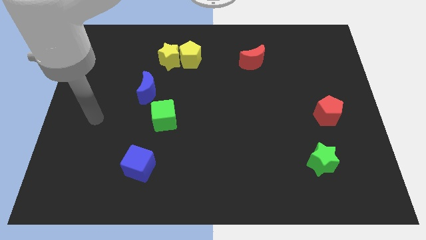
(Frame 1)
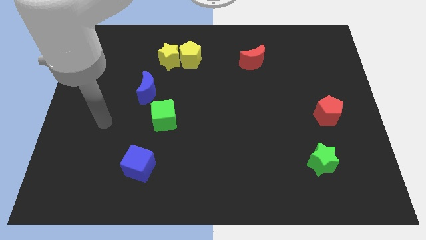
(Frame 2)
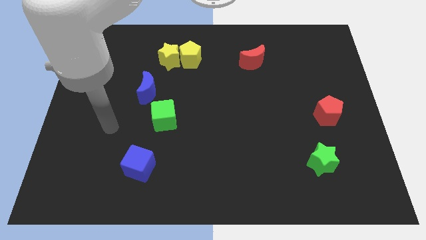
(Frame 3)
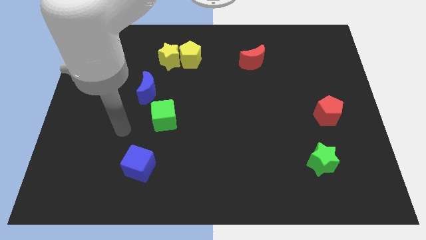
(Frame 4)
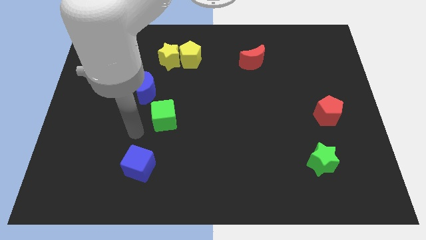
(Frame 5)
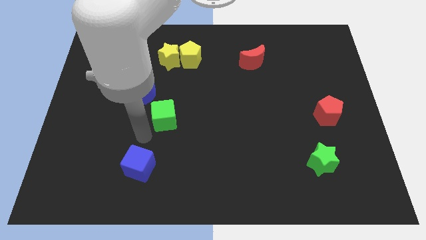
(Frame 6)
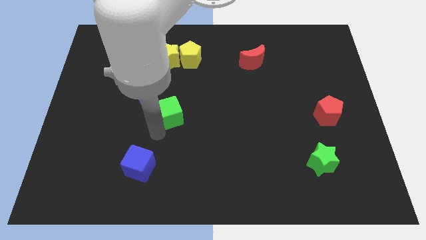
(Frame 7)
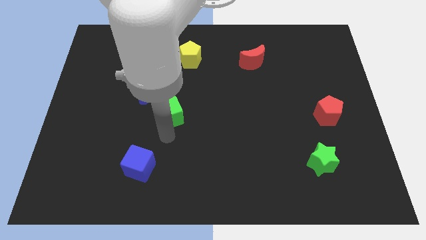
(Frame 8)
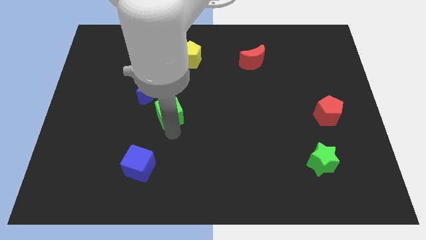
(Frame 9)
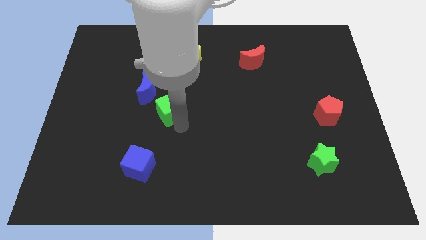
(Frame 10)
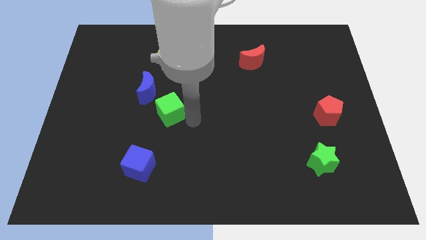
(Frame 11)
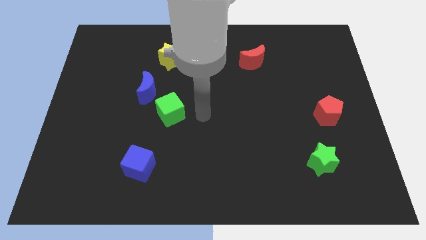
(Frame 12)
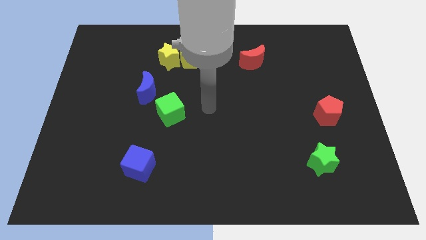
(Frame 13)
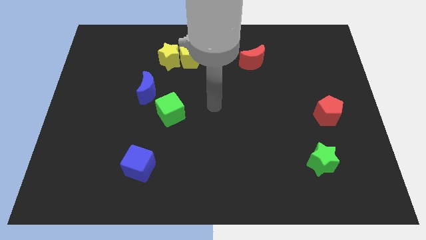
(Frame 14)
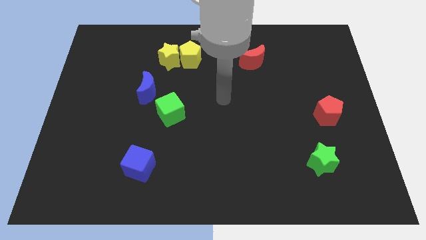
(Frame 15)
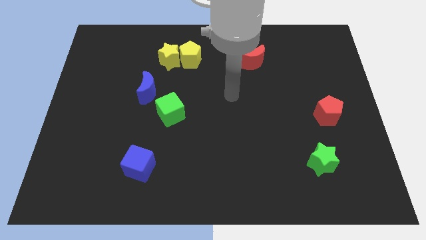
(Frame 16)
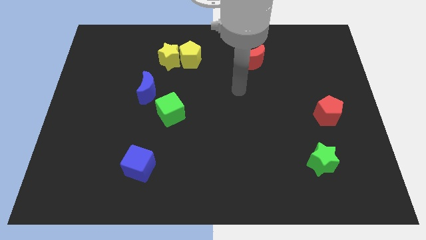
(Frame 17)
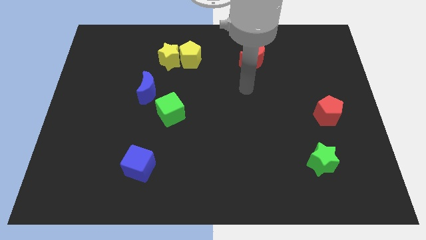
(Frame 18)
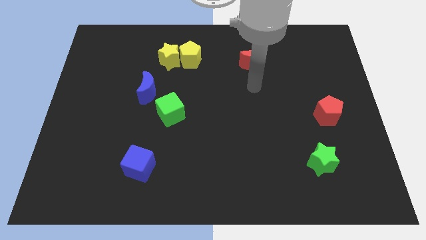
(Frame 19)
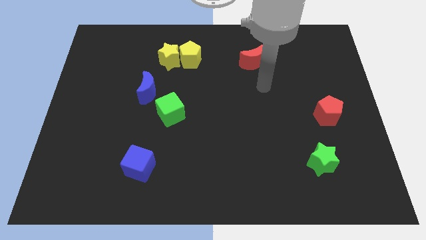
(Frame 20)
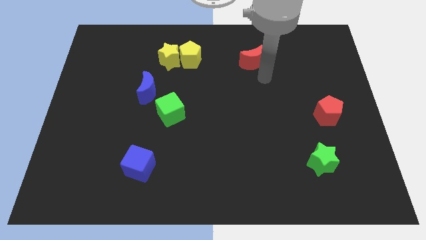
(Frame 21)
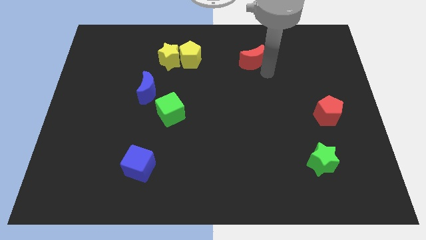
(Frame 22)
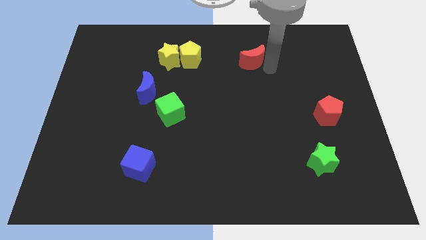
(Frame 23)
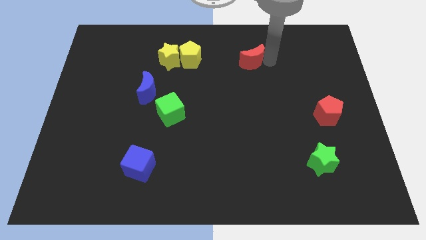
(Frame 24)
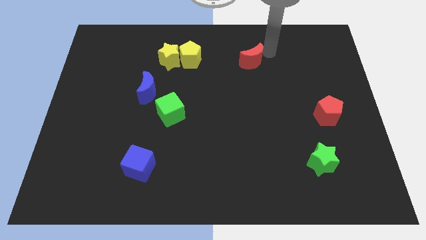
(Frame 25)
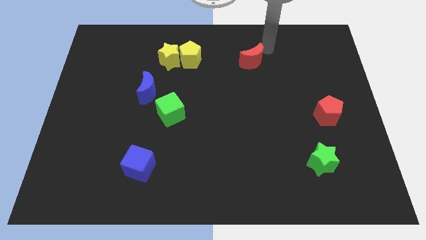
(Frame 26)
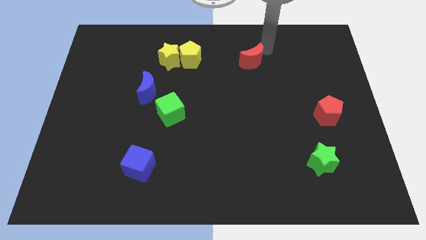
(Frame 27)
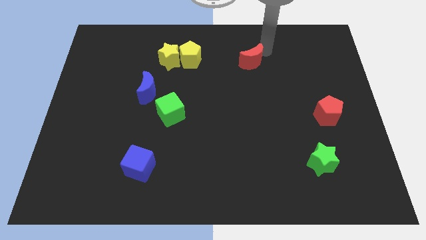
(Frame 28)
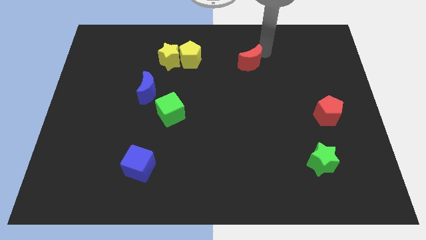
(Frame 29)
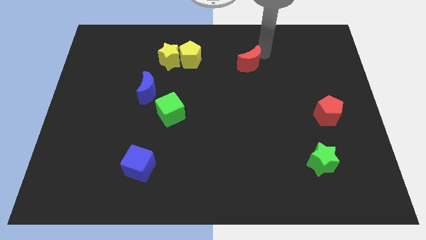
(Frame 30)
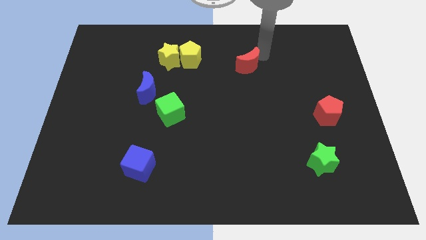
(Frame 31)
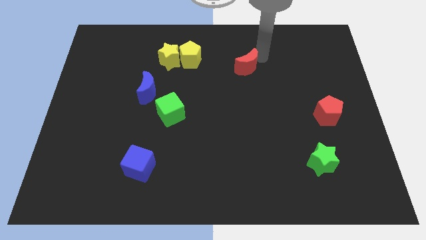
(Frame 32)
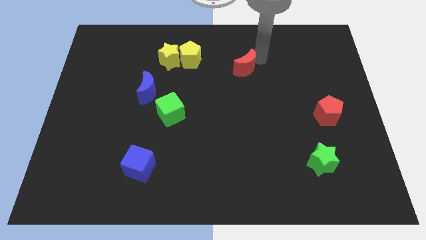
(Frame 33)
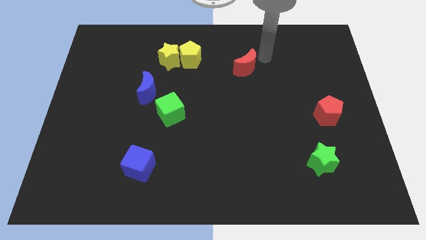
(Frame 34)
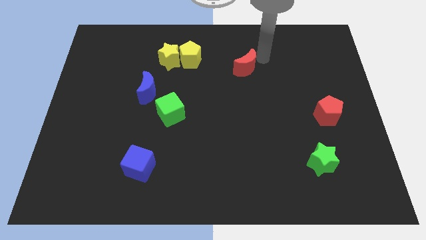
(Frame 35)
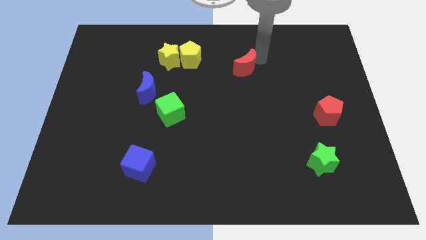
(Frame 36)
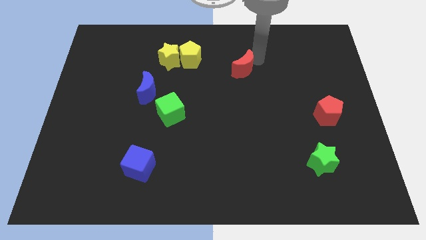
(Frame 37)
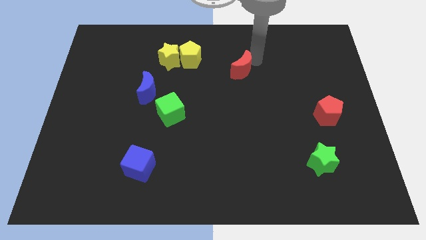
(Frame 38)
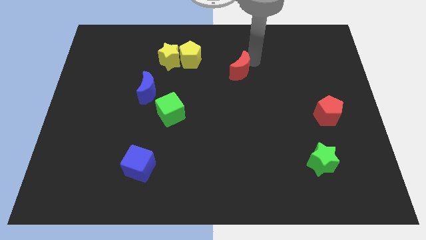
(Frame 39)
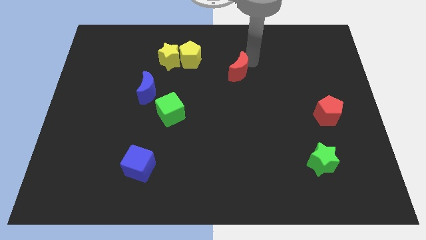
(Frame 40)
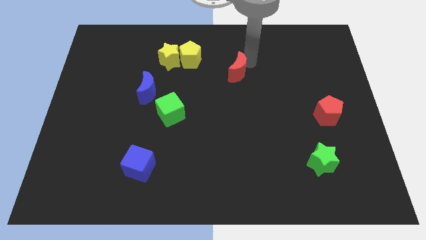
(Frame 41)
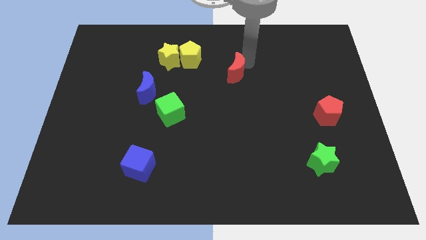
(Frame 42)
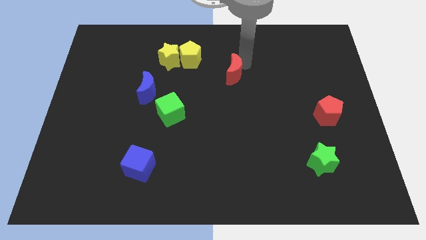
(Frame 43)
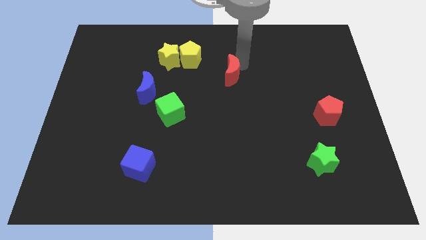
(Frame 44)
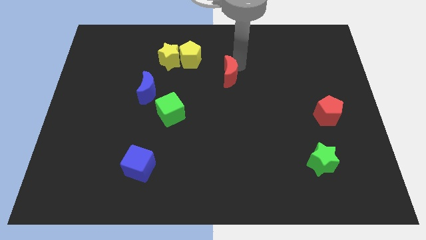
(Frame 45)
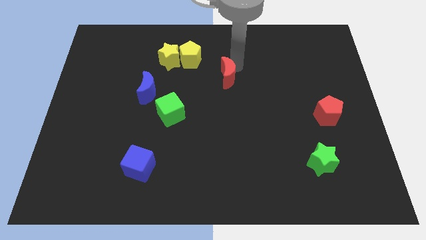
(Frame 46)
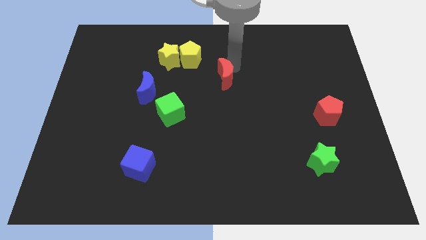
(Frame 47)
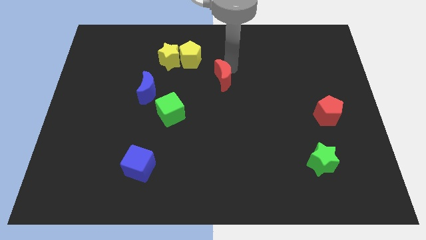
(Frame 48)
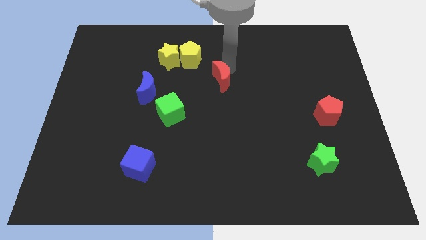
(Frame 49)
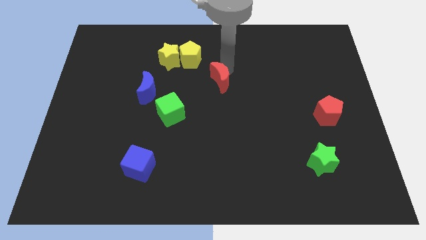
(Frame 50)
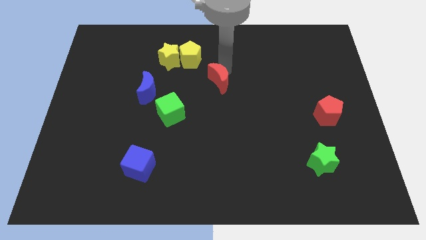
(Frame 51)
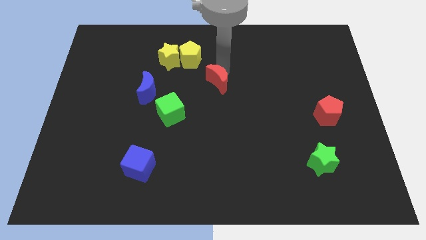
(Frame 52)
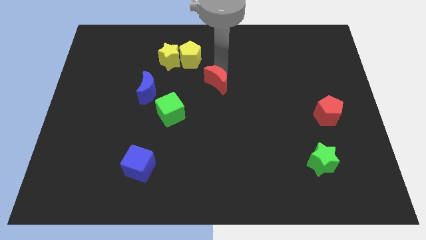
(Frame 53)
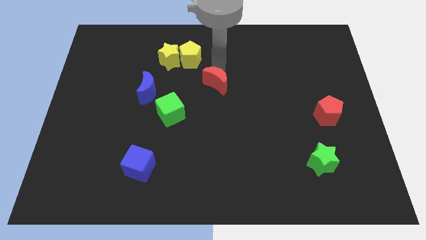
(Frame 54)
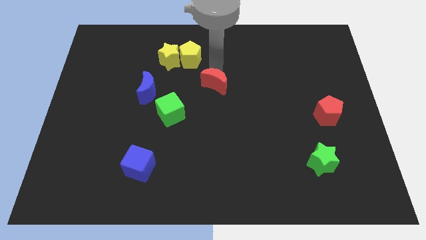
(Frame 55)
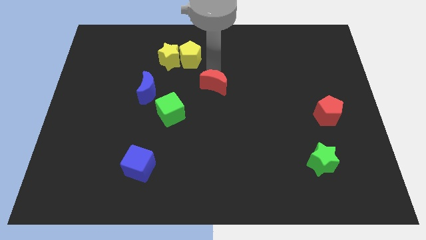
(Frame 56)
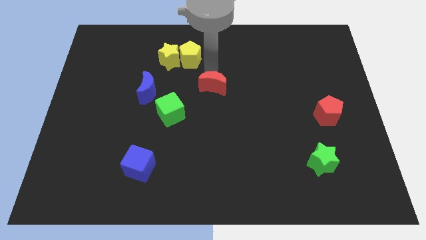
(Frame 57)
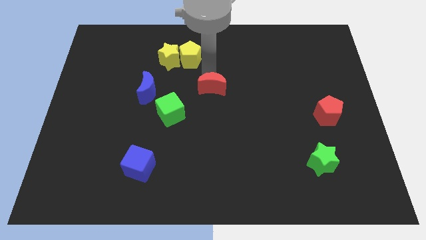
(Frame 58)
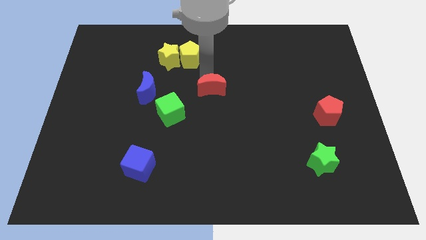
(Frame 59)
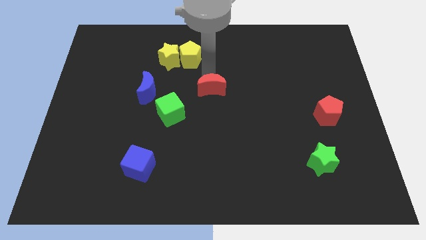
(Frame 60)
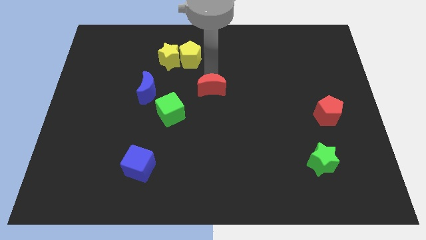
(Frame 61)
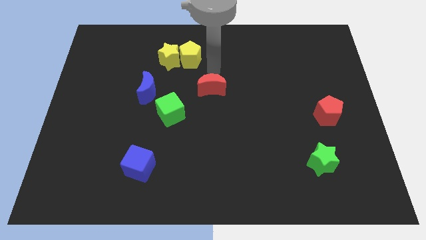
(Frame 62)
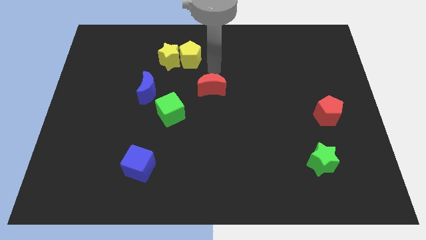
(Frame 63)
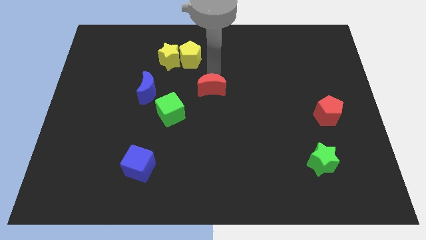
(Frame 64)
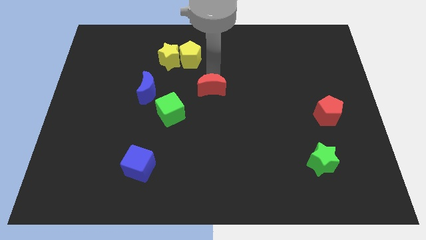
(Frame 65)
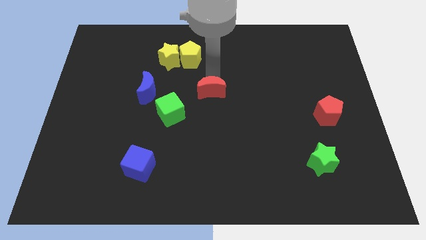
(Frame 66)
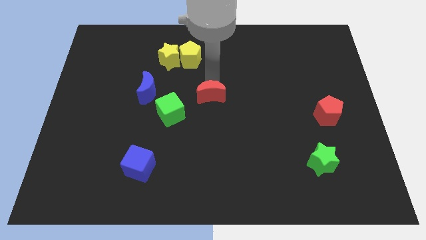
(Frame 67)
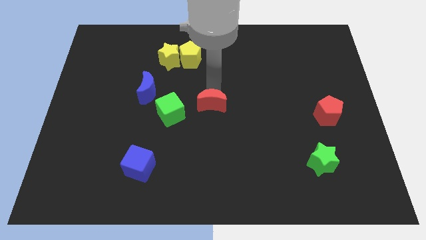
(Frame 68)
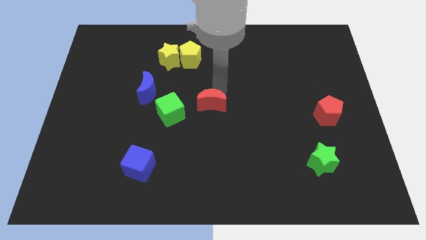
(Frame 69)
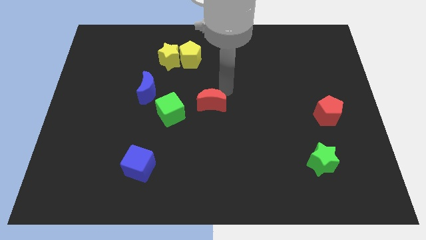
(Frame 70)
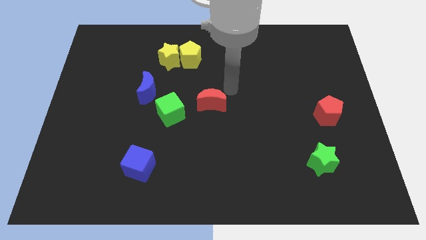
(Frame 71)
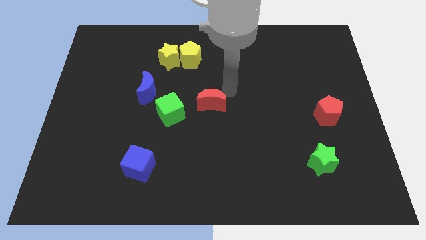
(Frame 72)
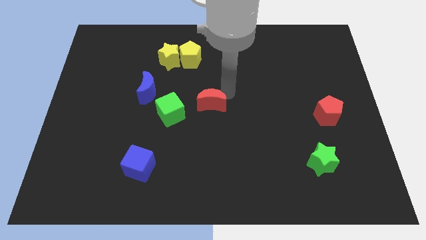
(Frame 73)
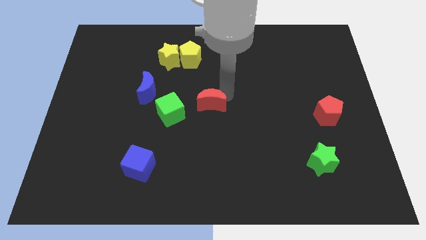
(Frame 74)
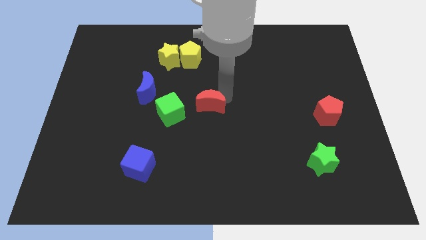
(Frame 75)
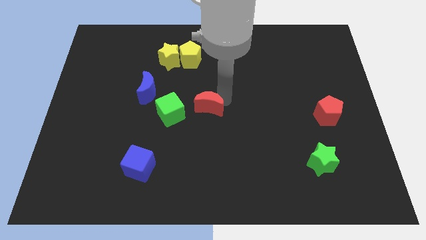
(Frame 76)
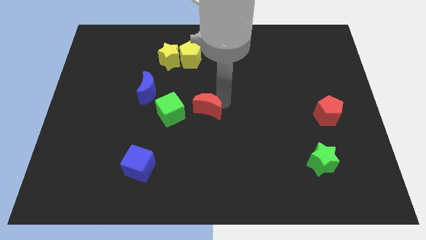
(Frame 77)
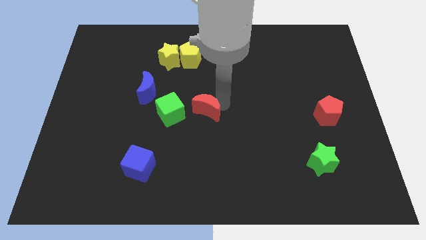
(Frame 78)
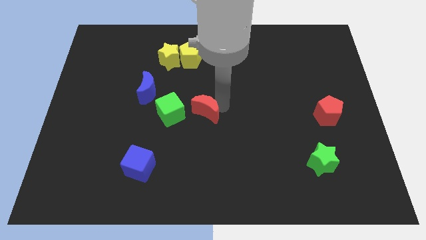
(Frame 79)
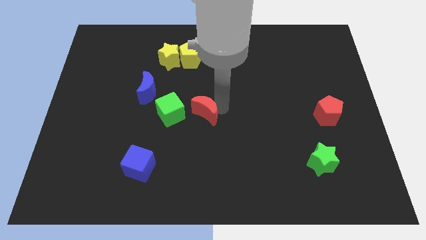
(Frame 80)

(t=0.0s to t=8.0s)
slide the red moon diagonally down and left

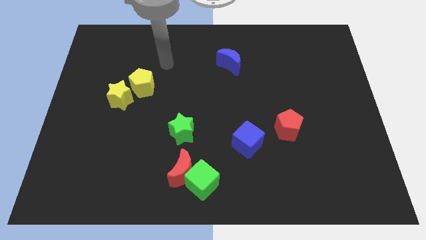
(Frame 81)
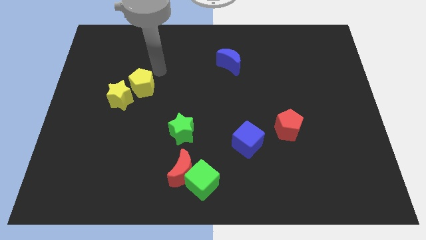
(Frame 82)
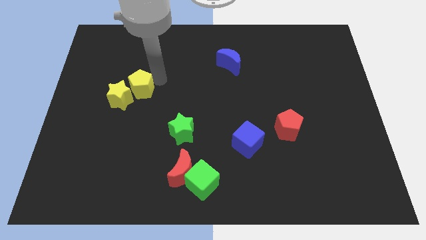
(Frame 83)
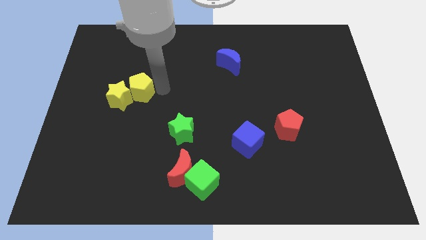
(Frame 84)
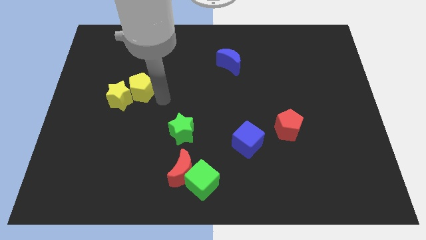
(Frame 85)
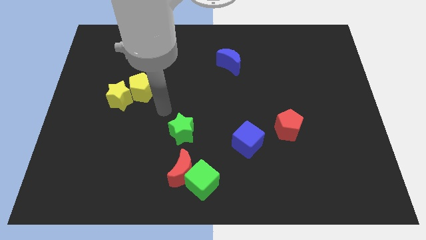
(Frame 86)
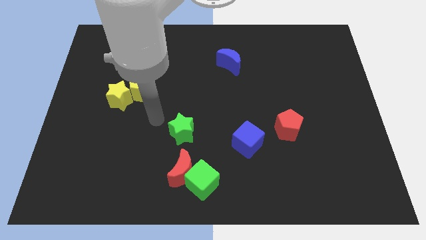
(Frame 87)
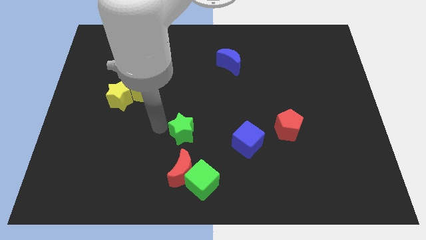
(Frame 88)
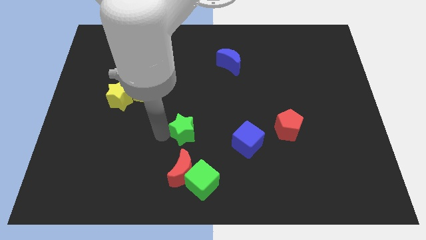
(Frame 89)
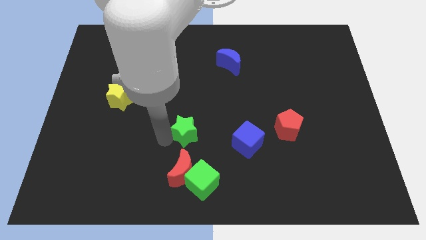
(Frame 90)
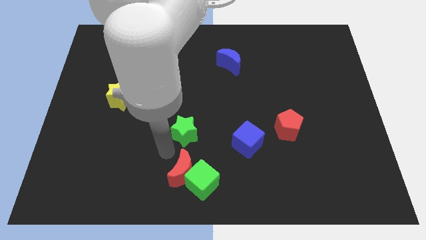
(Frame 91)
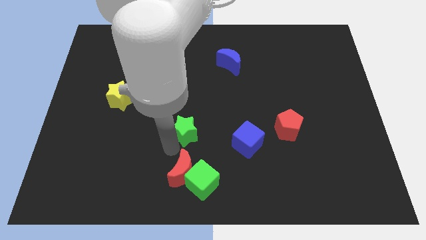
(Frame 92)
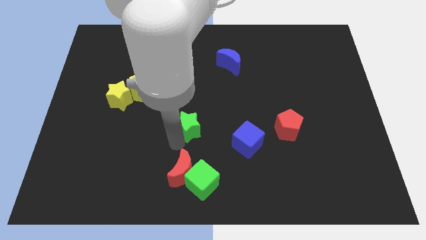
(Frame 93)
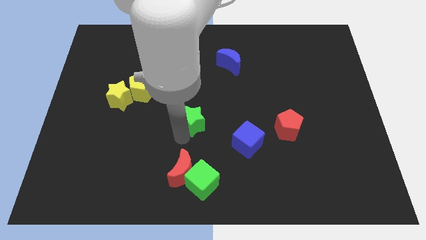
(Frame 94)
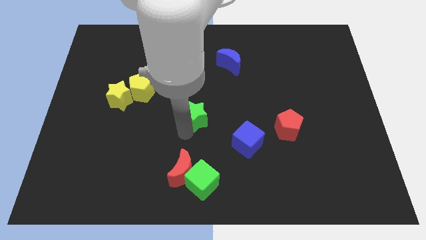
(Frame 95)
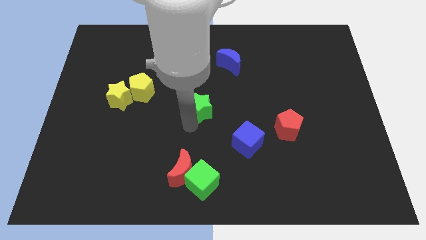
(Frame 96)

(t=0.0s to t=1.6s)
slightly move the green star upwards and then right
